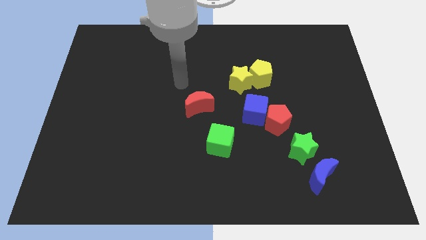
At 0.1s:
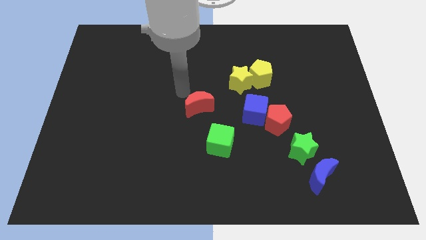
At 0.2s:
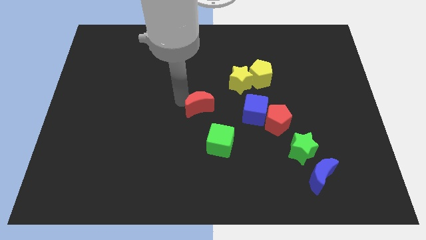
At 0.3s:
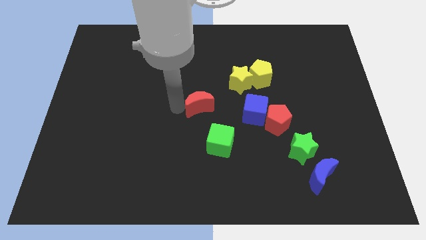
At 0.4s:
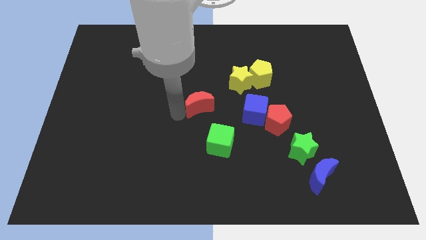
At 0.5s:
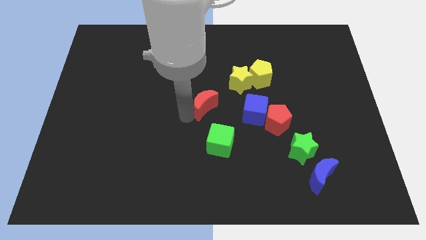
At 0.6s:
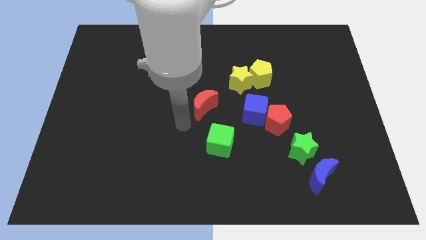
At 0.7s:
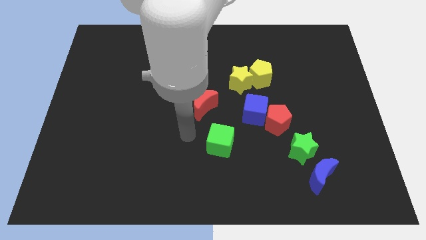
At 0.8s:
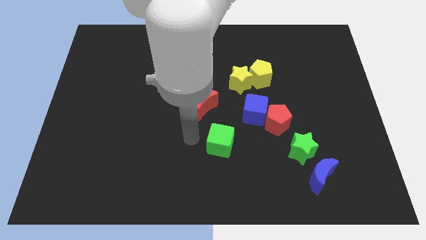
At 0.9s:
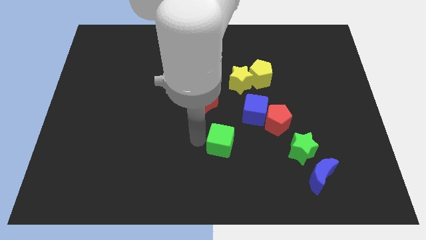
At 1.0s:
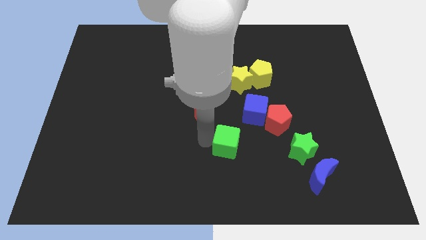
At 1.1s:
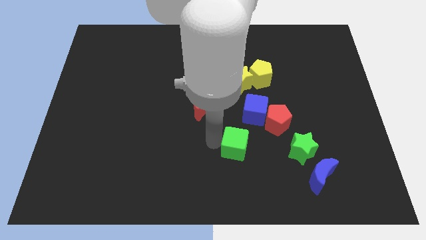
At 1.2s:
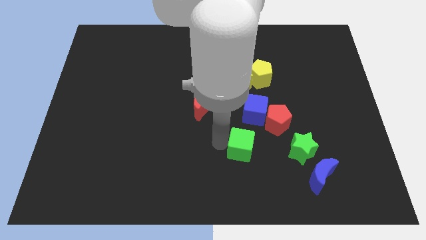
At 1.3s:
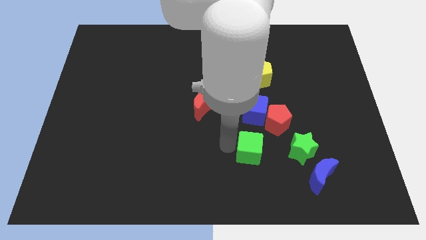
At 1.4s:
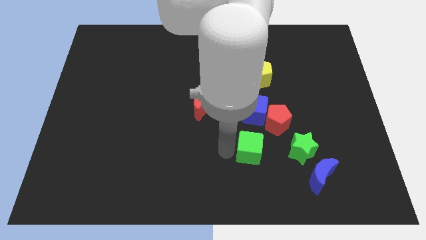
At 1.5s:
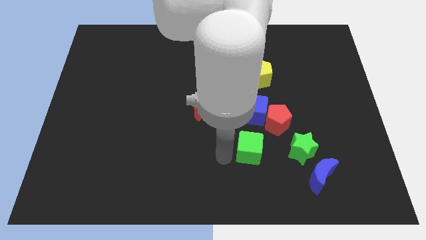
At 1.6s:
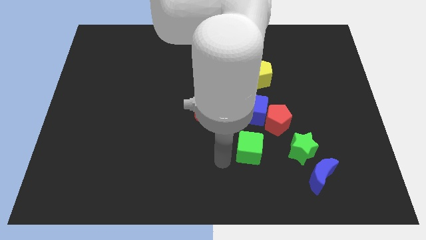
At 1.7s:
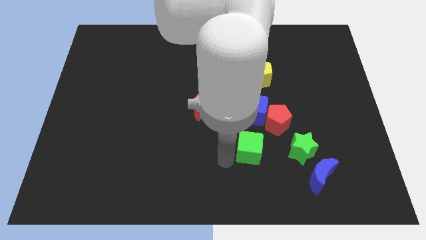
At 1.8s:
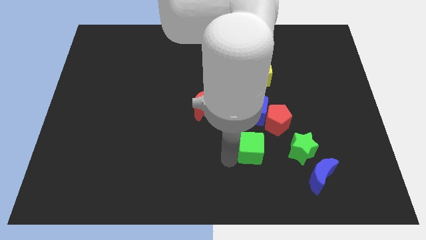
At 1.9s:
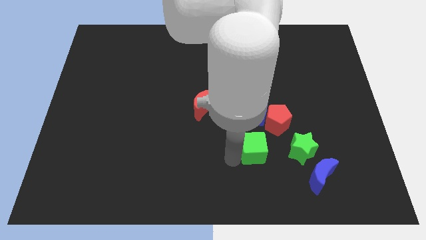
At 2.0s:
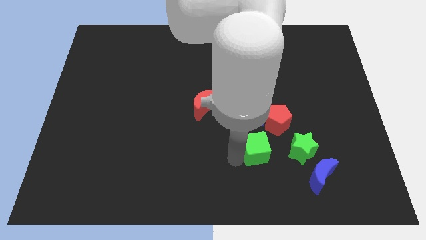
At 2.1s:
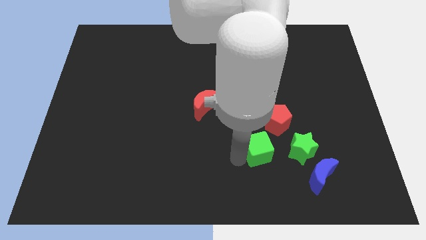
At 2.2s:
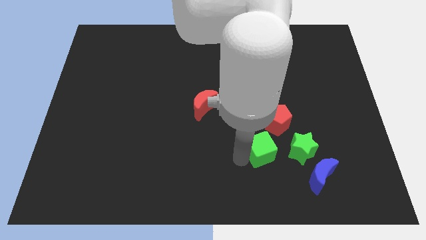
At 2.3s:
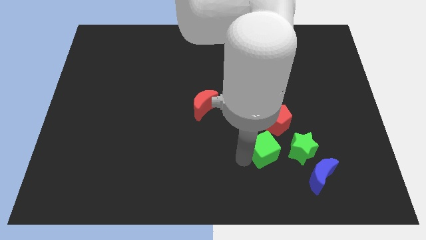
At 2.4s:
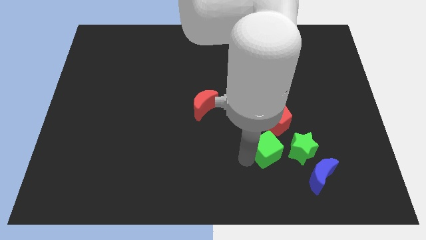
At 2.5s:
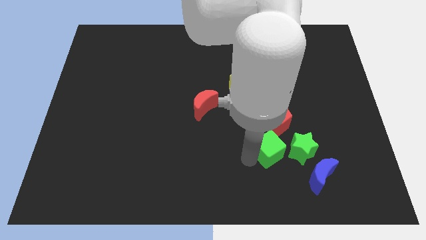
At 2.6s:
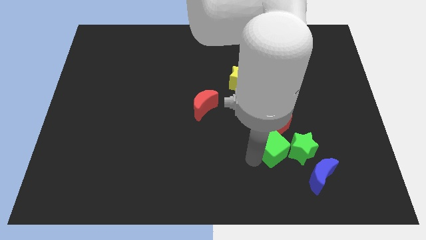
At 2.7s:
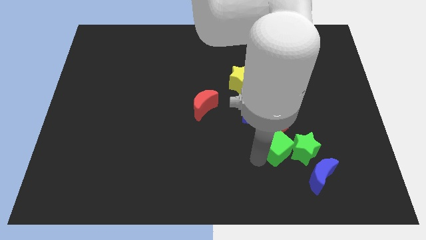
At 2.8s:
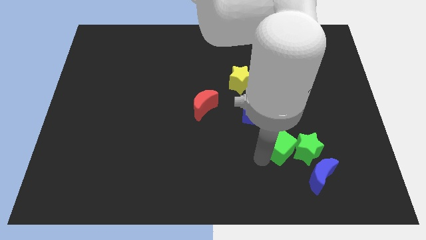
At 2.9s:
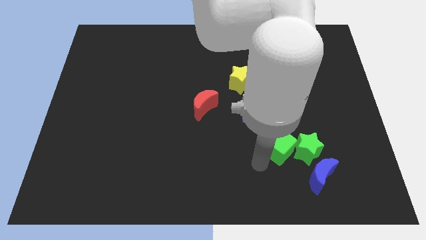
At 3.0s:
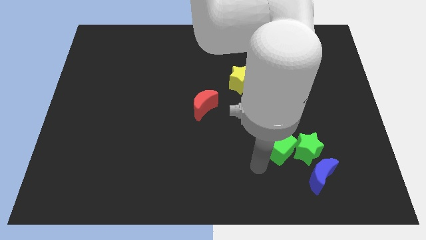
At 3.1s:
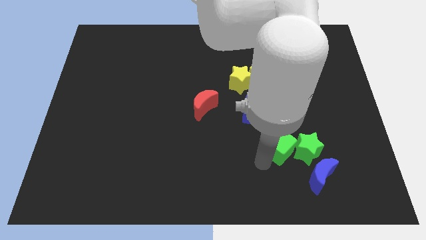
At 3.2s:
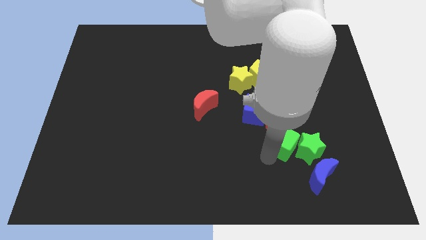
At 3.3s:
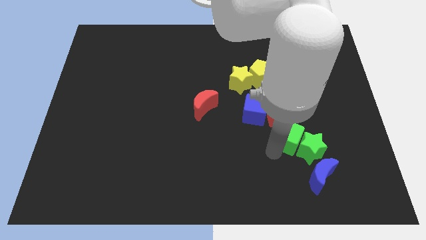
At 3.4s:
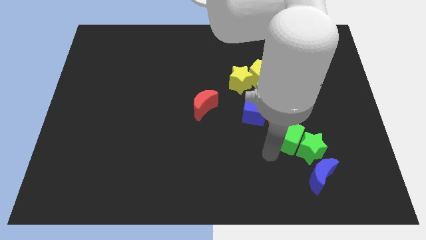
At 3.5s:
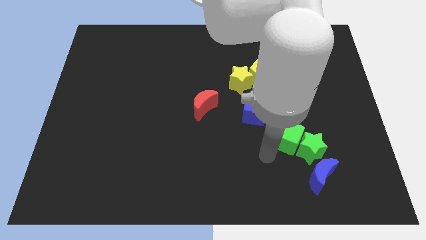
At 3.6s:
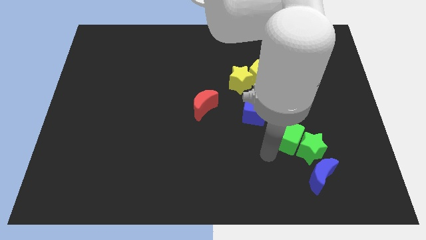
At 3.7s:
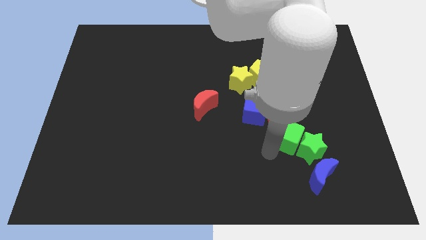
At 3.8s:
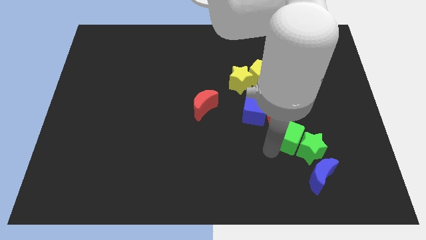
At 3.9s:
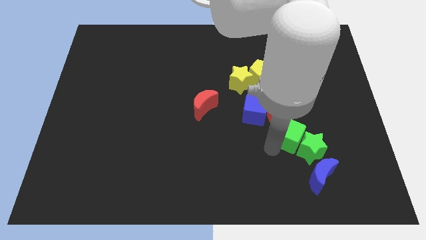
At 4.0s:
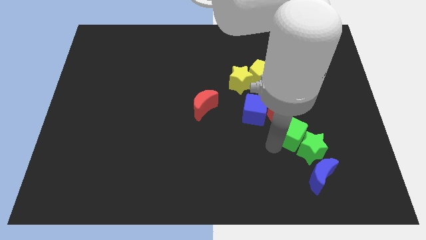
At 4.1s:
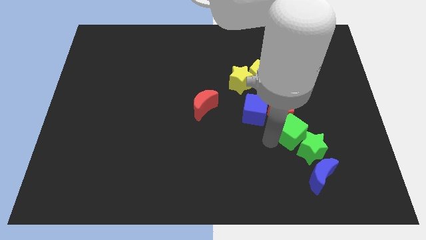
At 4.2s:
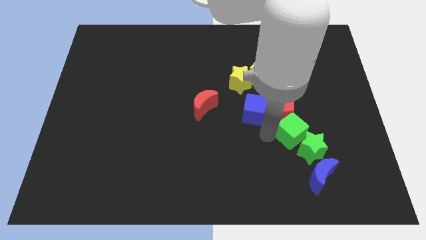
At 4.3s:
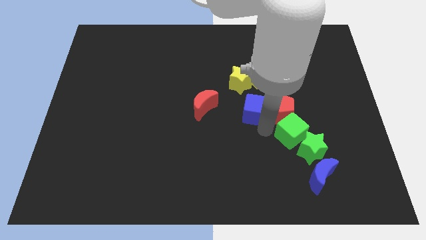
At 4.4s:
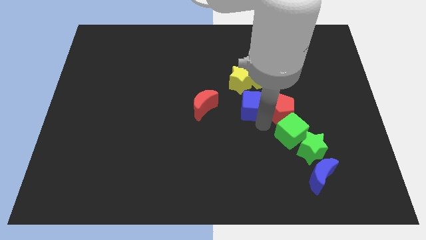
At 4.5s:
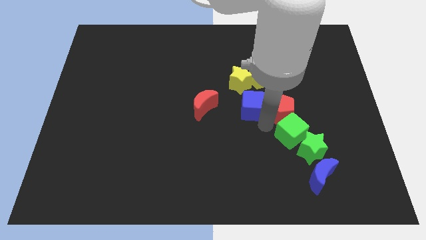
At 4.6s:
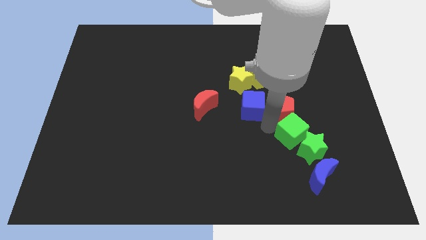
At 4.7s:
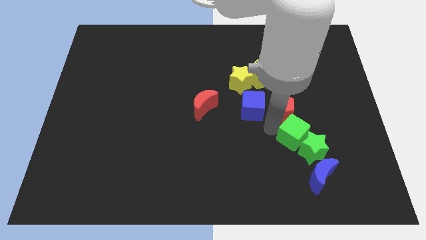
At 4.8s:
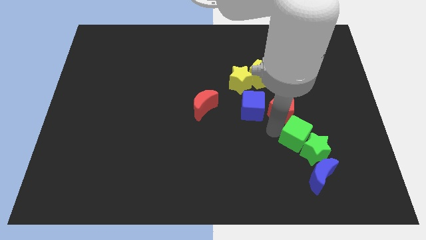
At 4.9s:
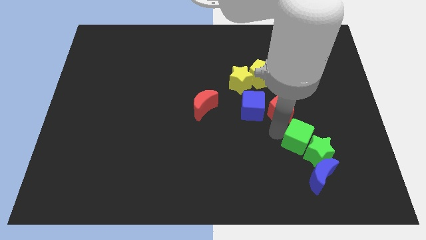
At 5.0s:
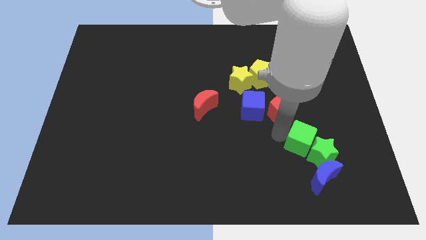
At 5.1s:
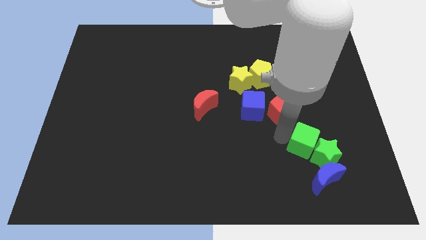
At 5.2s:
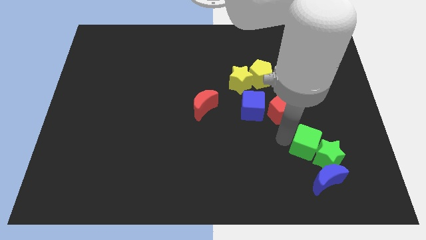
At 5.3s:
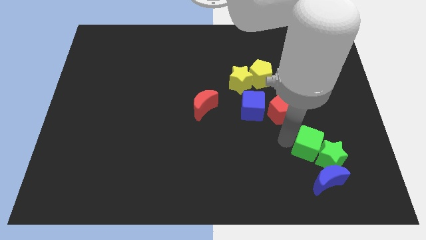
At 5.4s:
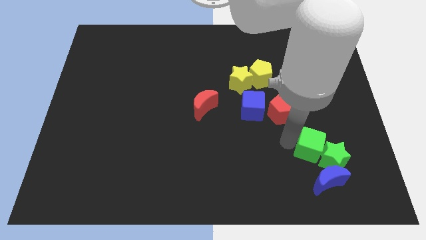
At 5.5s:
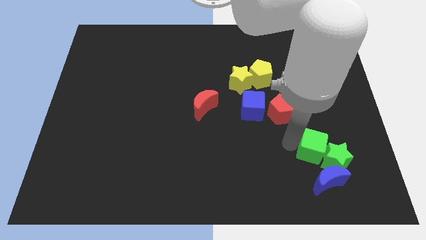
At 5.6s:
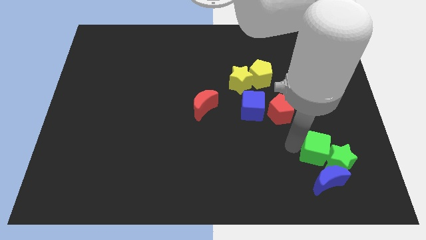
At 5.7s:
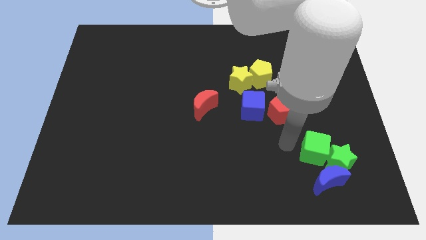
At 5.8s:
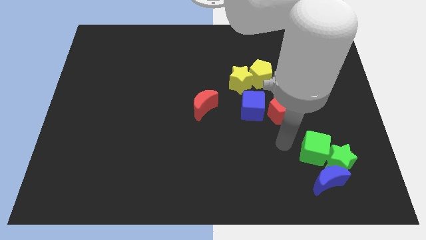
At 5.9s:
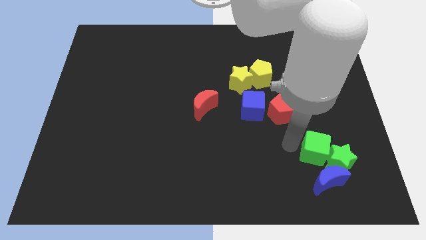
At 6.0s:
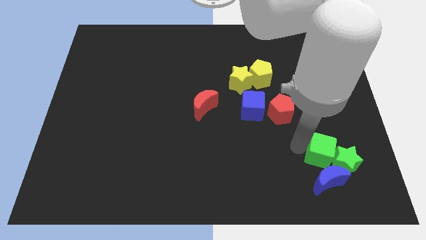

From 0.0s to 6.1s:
slide the green cube to the top right of the blue moon

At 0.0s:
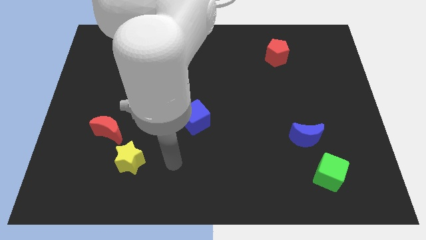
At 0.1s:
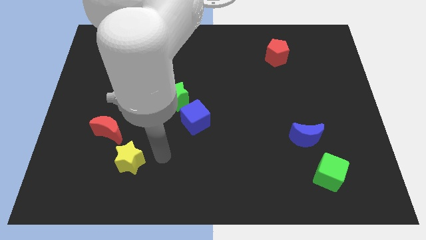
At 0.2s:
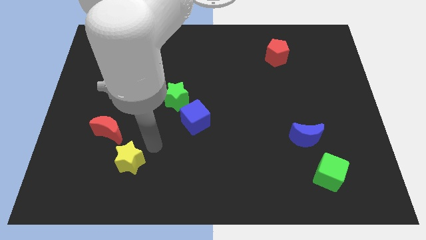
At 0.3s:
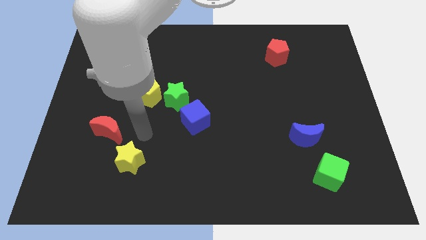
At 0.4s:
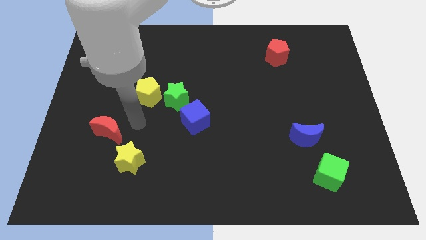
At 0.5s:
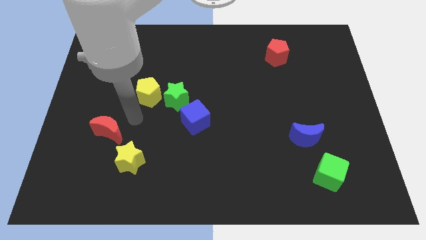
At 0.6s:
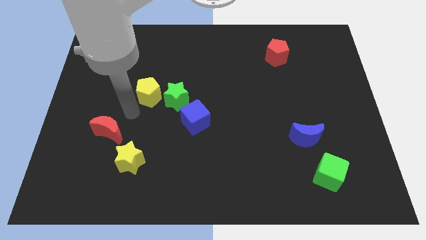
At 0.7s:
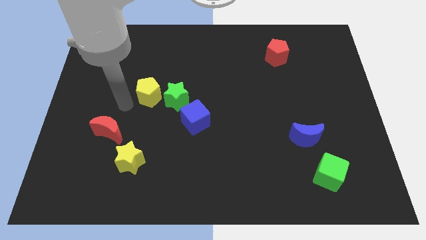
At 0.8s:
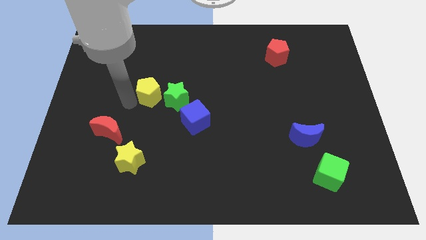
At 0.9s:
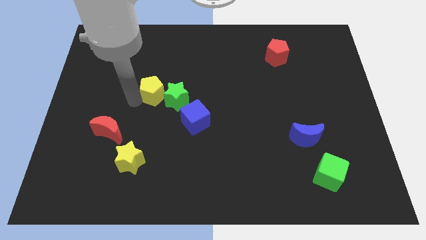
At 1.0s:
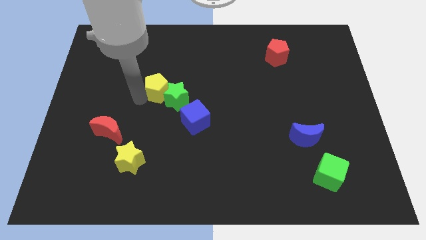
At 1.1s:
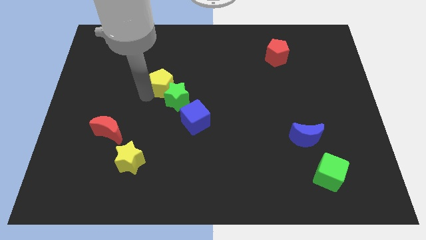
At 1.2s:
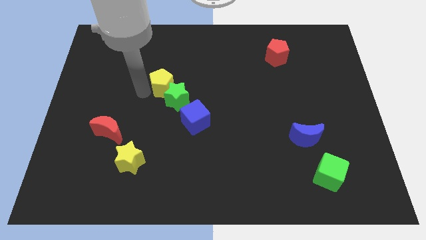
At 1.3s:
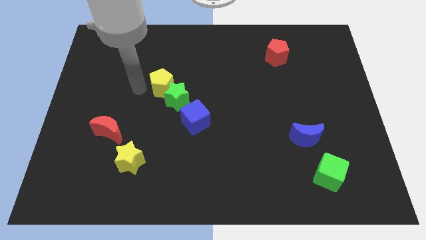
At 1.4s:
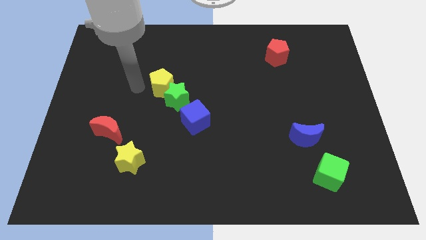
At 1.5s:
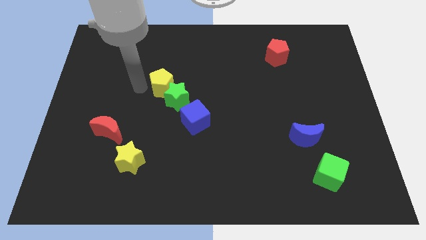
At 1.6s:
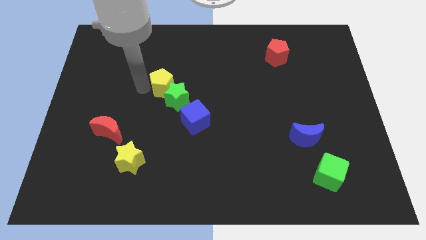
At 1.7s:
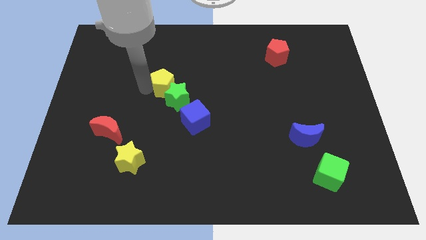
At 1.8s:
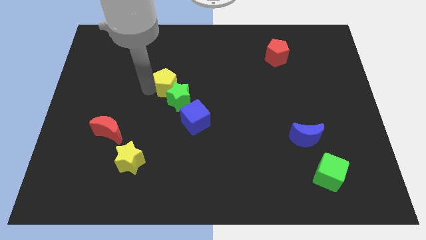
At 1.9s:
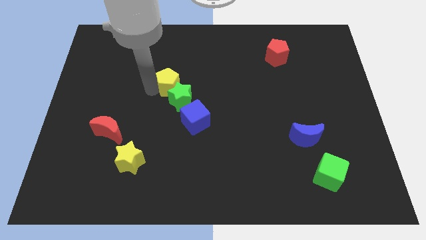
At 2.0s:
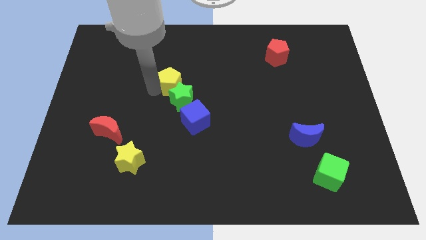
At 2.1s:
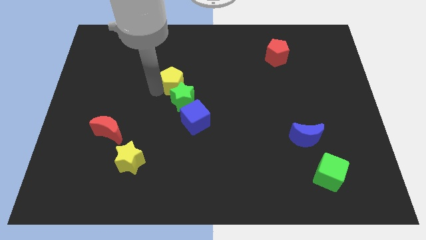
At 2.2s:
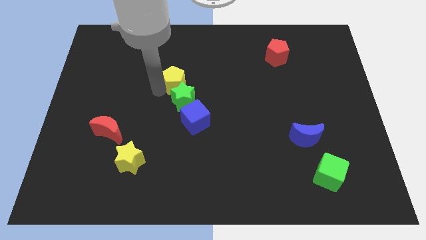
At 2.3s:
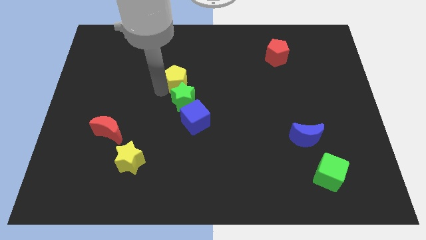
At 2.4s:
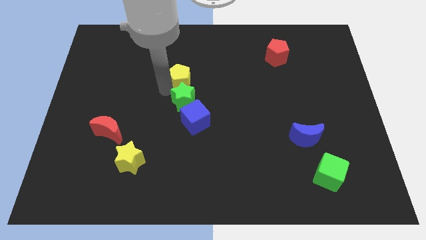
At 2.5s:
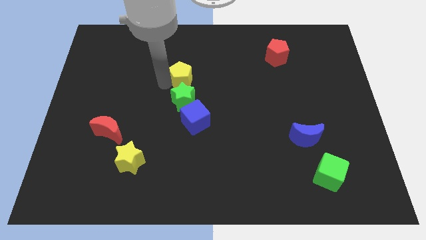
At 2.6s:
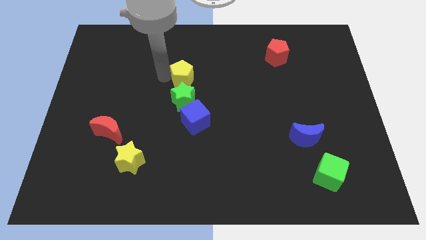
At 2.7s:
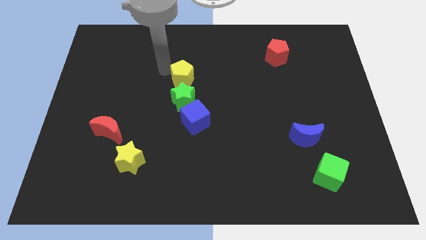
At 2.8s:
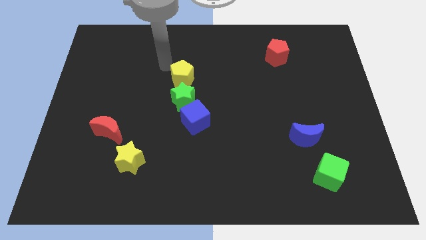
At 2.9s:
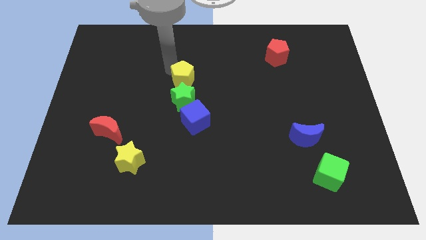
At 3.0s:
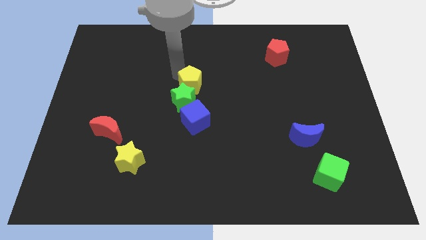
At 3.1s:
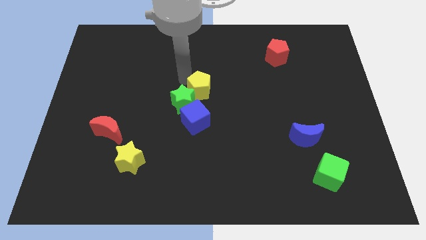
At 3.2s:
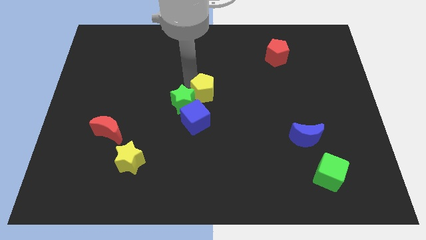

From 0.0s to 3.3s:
push the yellow pentagon to the top right side of the blue cube
